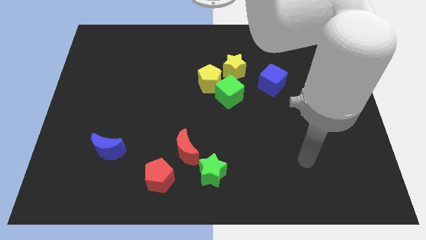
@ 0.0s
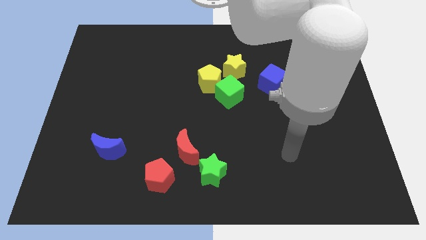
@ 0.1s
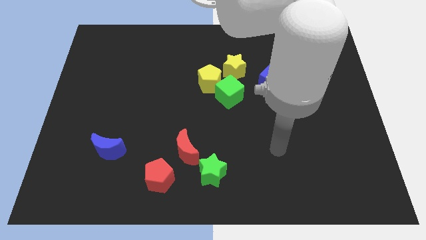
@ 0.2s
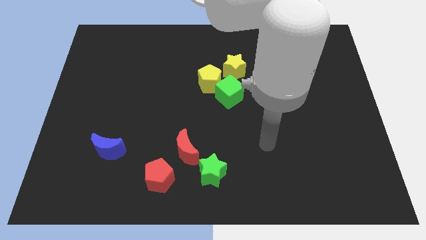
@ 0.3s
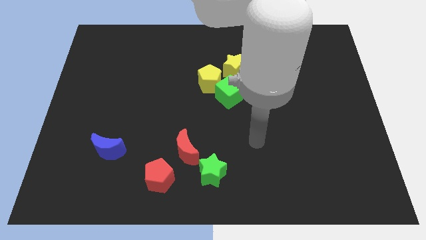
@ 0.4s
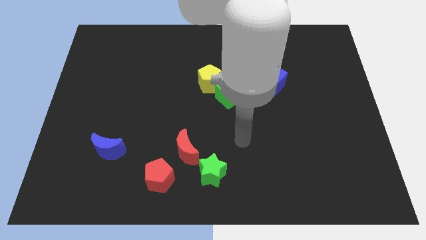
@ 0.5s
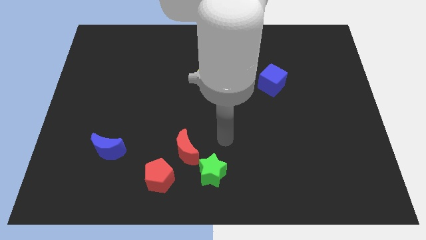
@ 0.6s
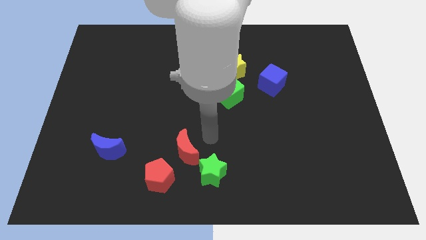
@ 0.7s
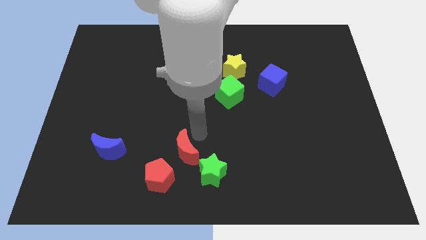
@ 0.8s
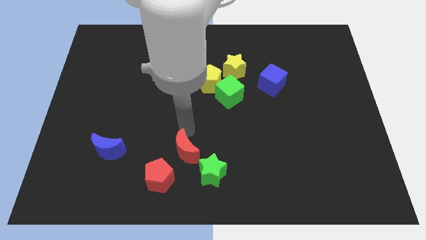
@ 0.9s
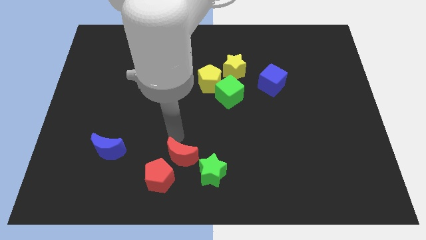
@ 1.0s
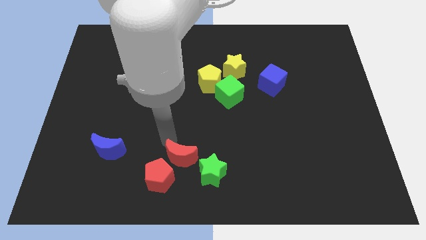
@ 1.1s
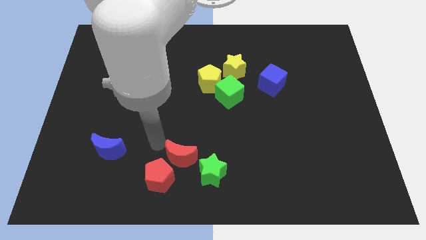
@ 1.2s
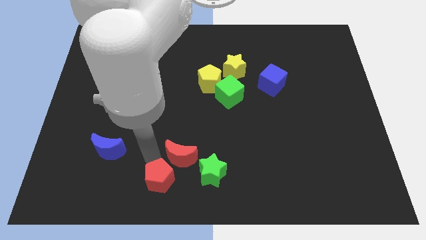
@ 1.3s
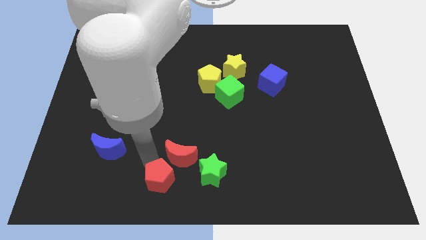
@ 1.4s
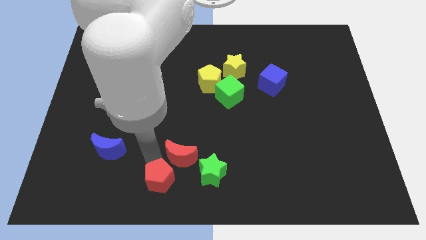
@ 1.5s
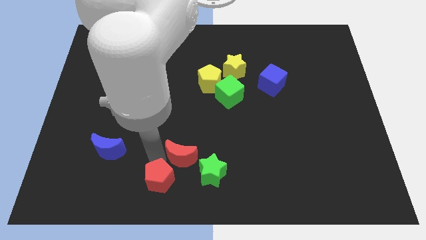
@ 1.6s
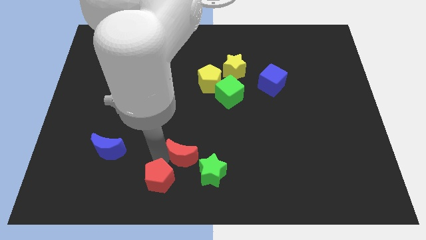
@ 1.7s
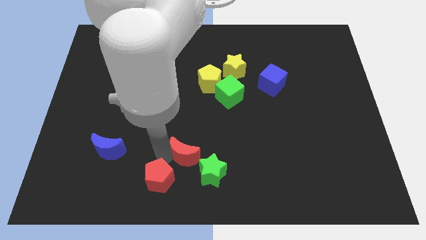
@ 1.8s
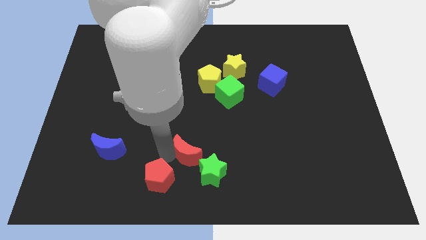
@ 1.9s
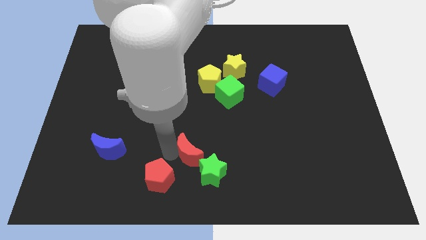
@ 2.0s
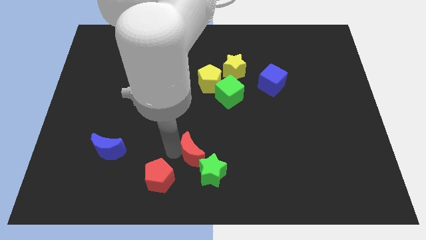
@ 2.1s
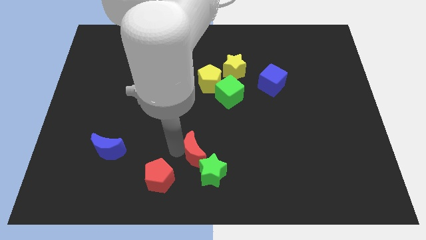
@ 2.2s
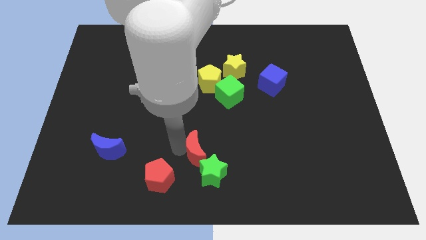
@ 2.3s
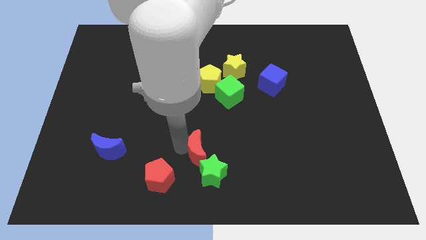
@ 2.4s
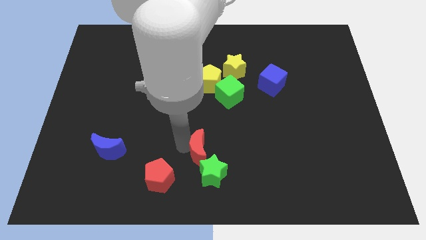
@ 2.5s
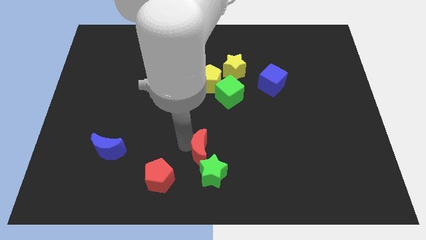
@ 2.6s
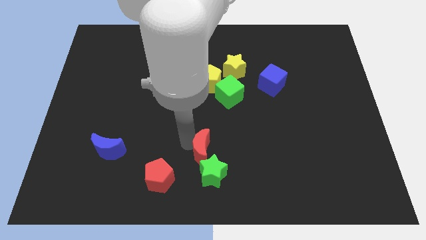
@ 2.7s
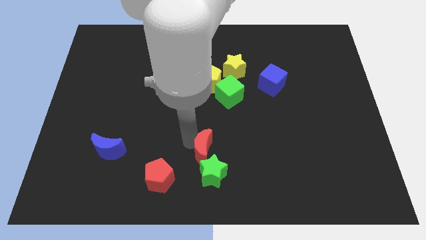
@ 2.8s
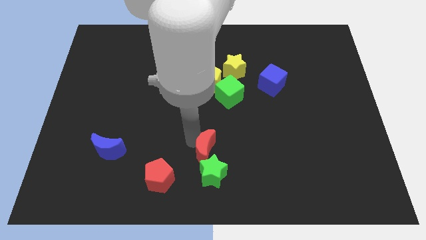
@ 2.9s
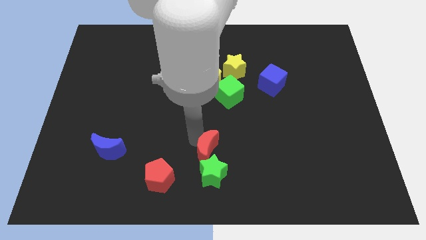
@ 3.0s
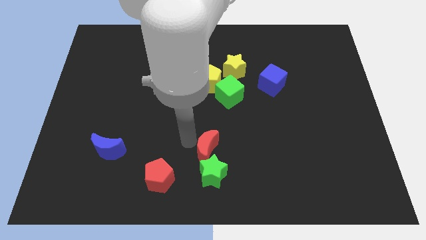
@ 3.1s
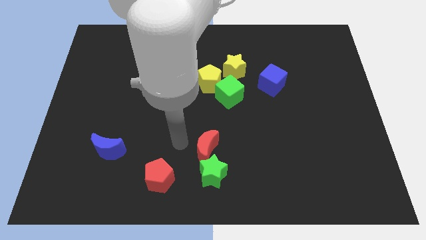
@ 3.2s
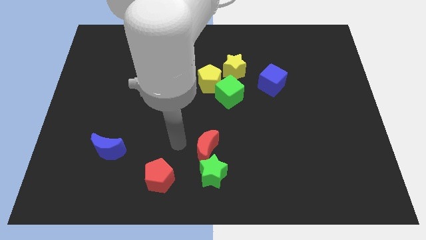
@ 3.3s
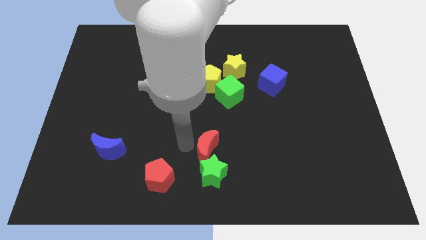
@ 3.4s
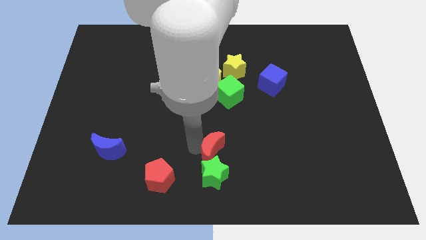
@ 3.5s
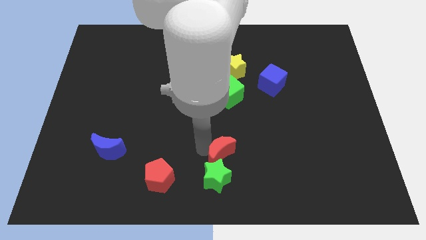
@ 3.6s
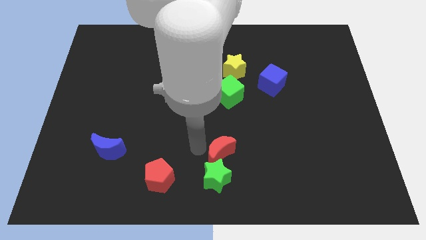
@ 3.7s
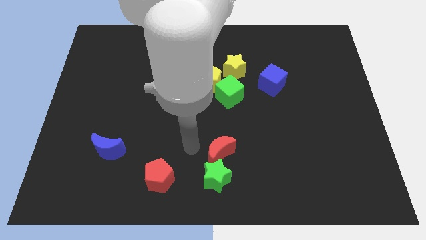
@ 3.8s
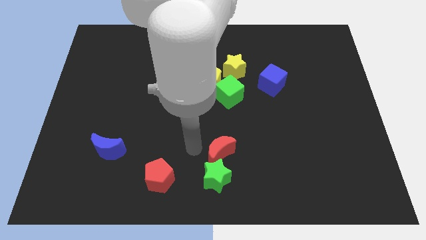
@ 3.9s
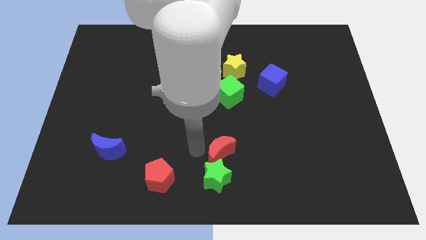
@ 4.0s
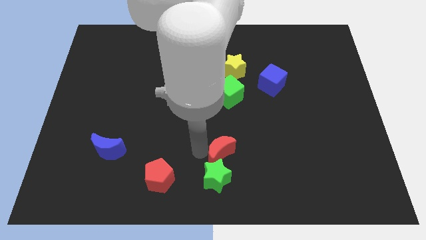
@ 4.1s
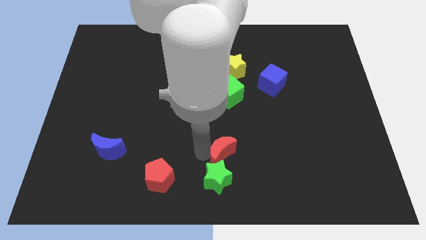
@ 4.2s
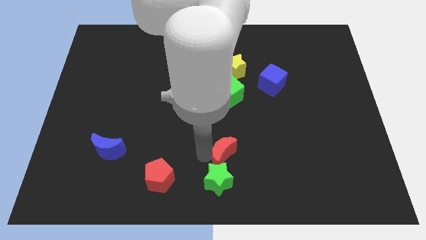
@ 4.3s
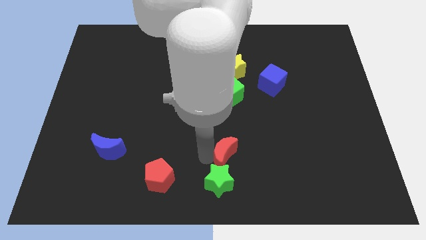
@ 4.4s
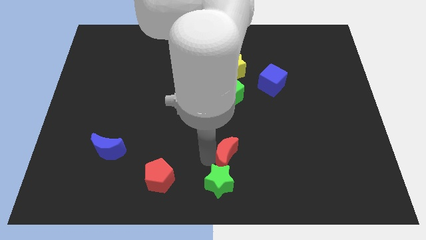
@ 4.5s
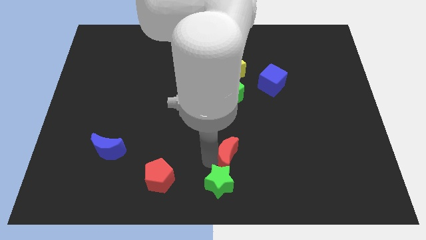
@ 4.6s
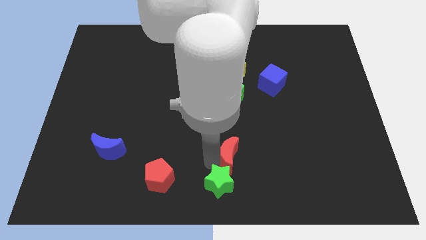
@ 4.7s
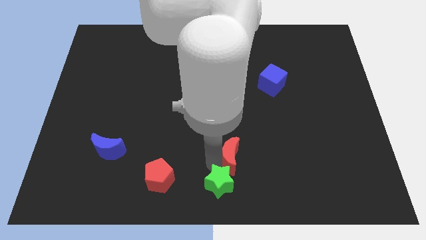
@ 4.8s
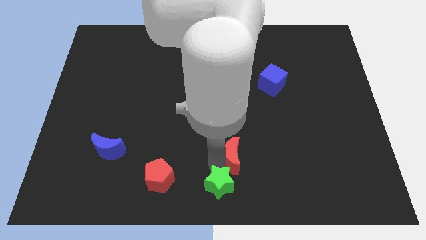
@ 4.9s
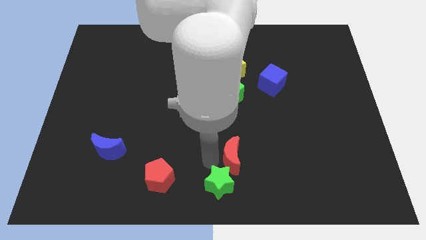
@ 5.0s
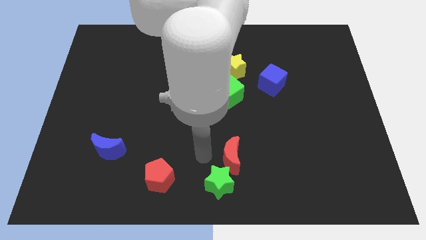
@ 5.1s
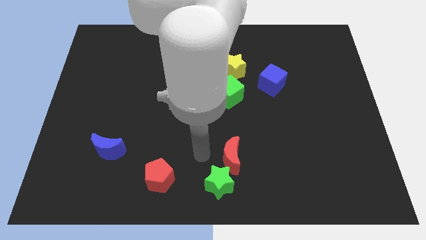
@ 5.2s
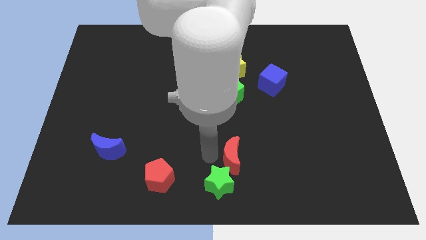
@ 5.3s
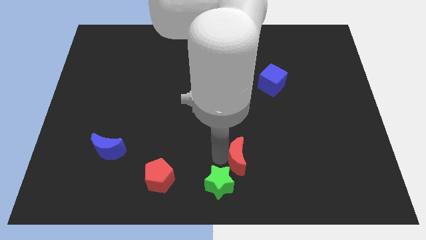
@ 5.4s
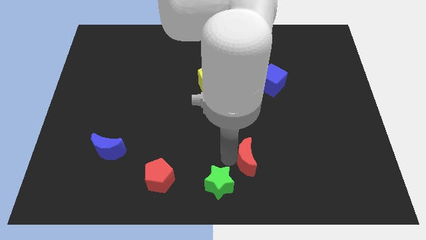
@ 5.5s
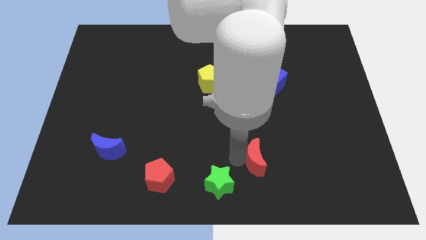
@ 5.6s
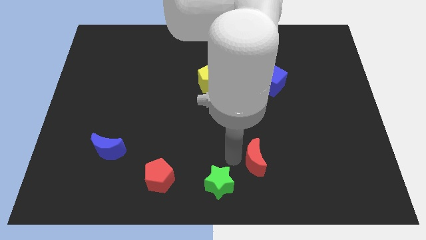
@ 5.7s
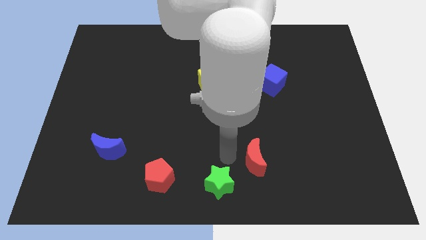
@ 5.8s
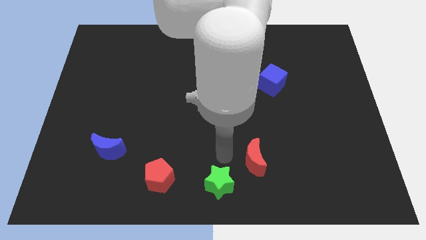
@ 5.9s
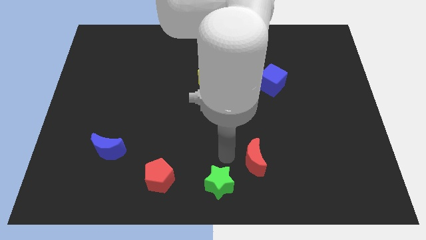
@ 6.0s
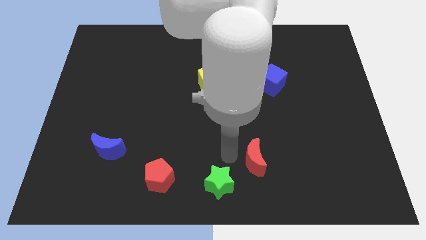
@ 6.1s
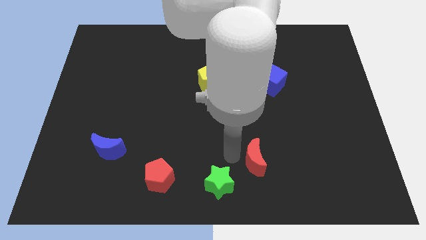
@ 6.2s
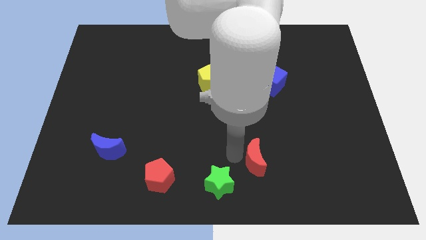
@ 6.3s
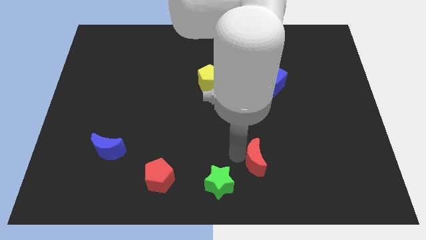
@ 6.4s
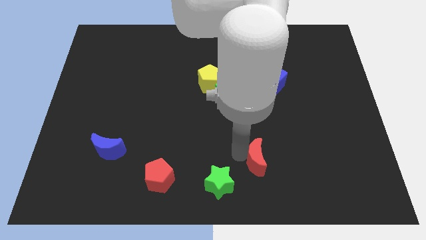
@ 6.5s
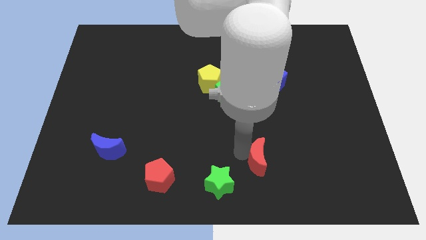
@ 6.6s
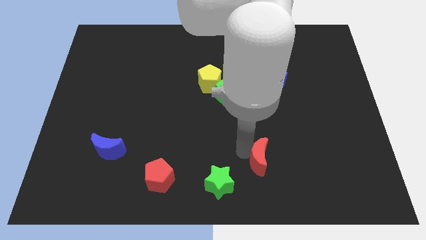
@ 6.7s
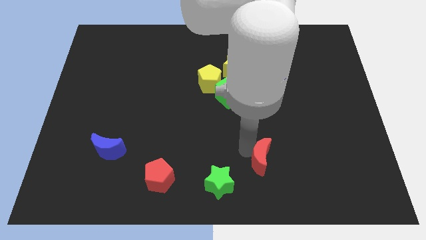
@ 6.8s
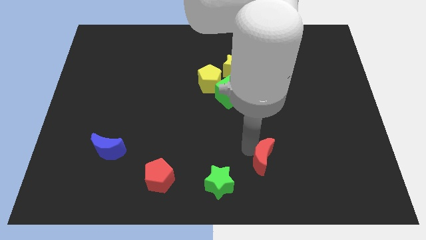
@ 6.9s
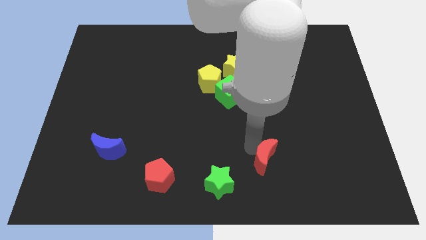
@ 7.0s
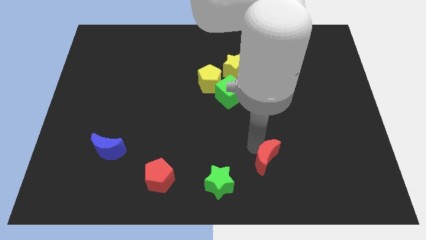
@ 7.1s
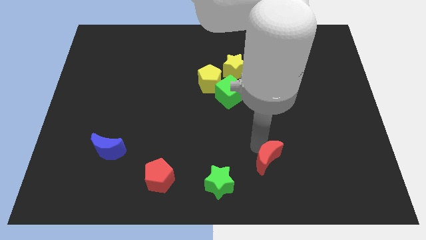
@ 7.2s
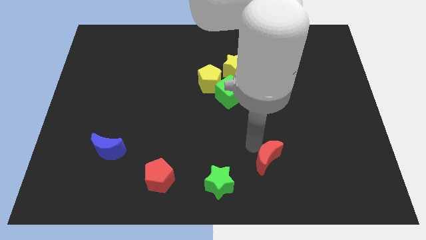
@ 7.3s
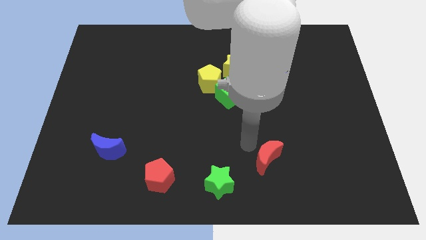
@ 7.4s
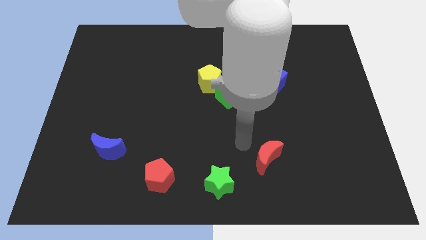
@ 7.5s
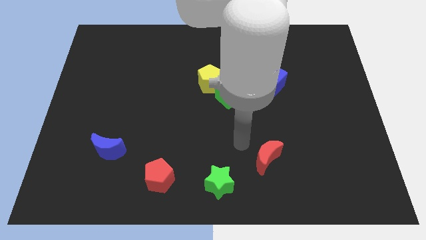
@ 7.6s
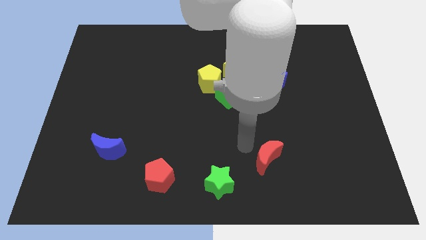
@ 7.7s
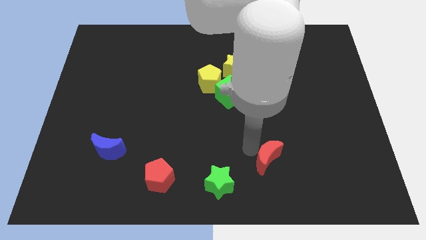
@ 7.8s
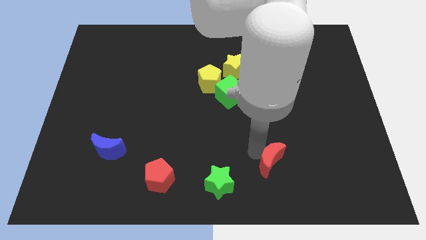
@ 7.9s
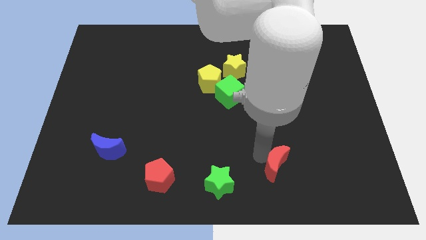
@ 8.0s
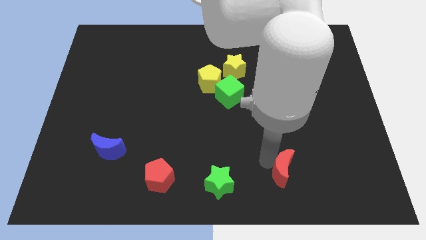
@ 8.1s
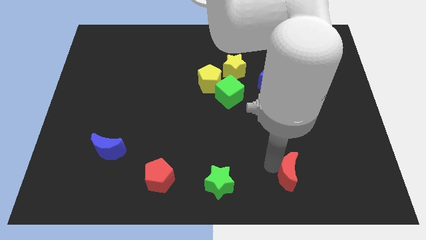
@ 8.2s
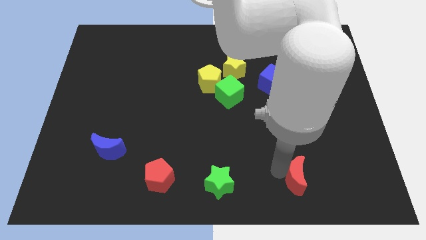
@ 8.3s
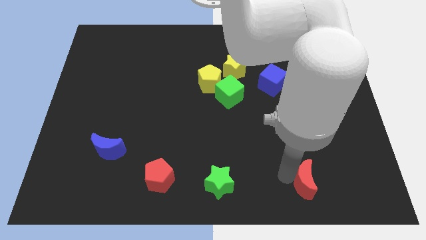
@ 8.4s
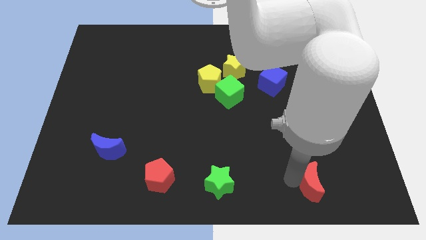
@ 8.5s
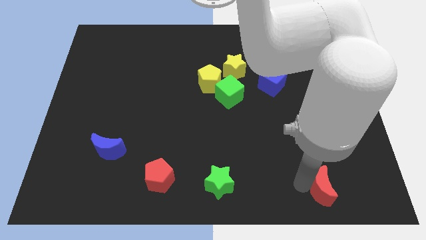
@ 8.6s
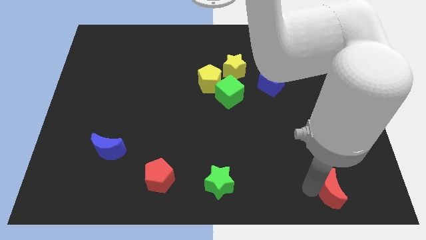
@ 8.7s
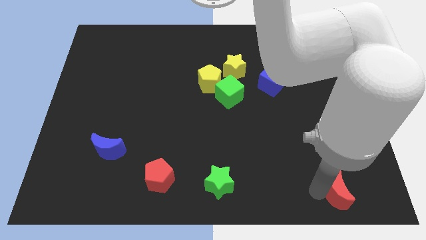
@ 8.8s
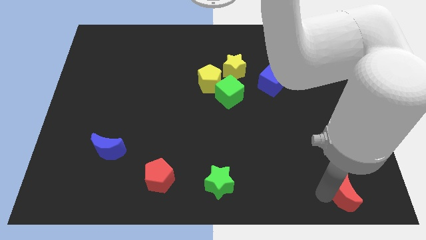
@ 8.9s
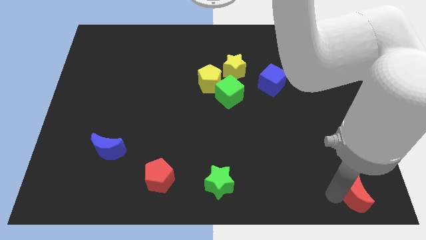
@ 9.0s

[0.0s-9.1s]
put the red moon to the bottom right
